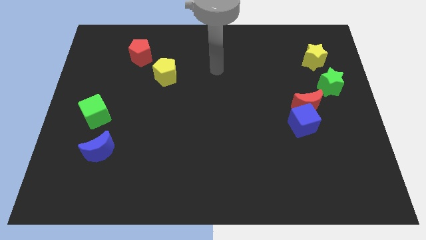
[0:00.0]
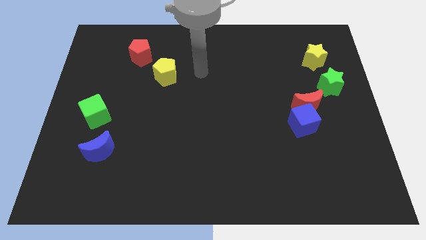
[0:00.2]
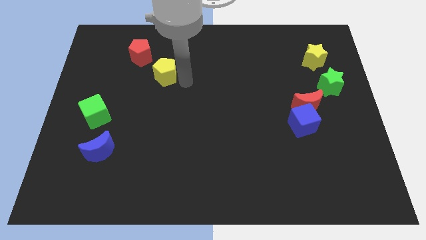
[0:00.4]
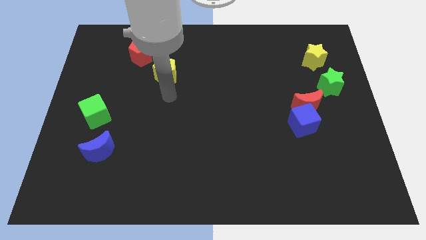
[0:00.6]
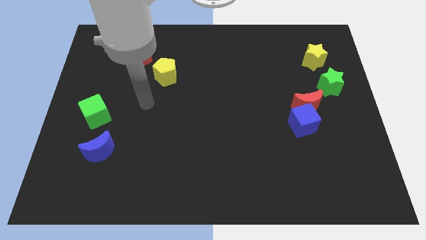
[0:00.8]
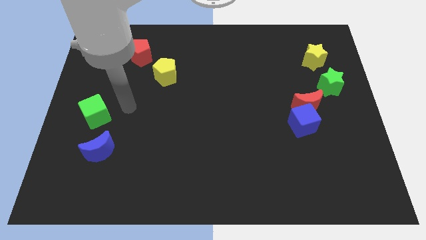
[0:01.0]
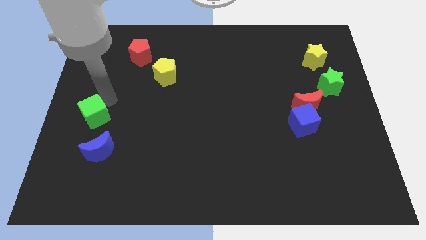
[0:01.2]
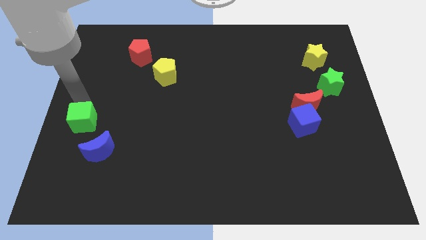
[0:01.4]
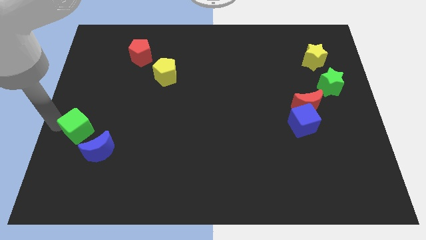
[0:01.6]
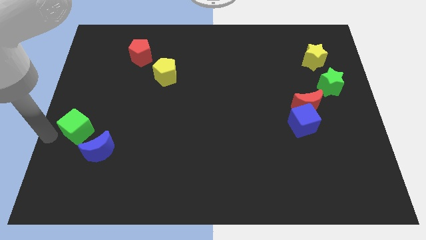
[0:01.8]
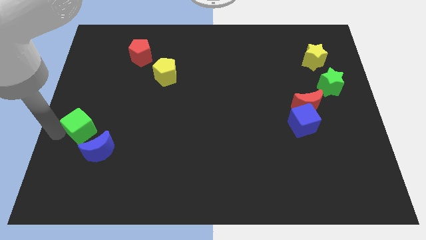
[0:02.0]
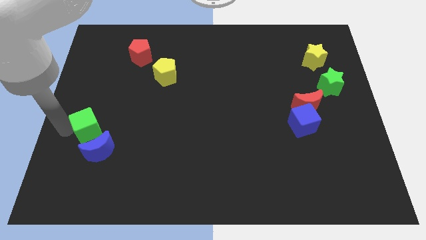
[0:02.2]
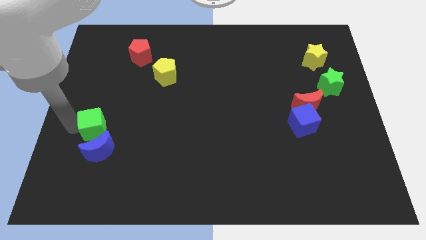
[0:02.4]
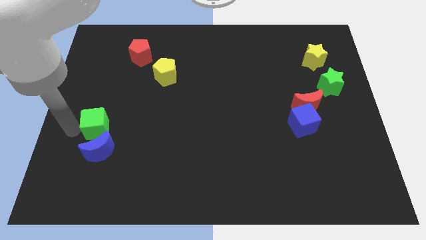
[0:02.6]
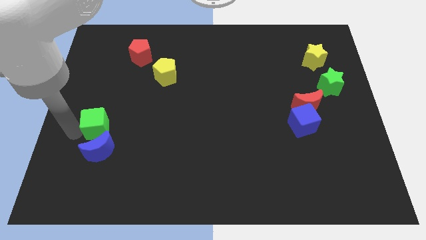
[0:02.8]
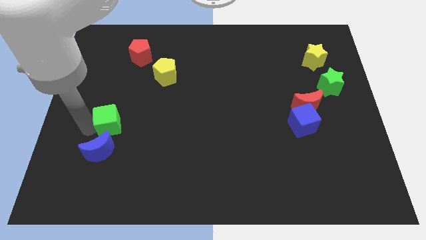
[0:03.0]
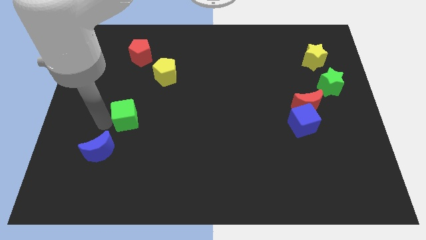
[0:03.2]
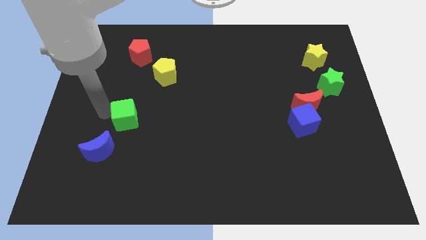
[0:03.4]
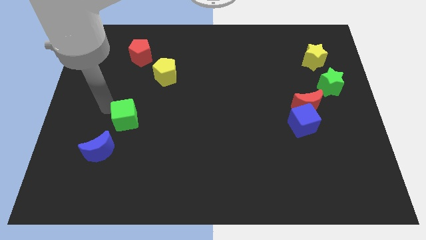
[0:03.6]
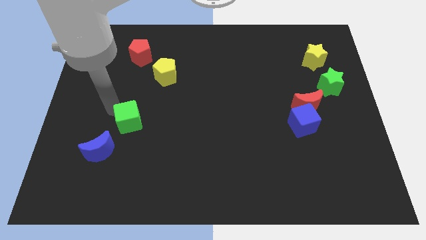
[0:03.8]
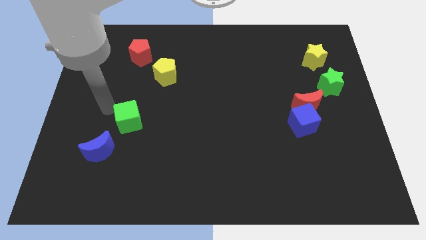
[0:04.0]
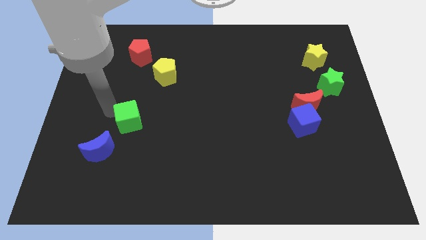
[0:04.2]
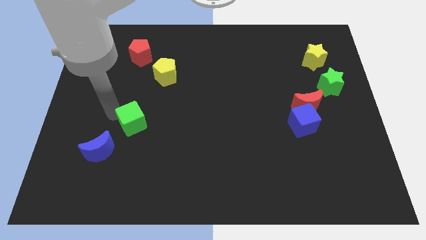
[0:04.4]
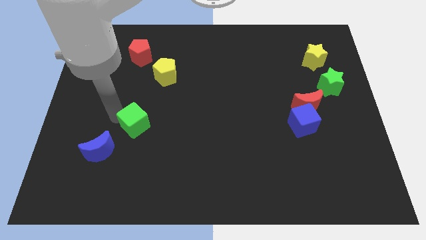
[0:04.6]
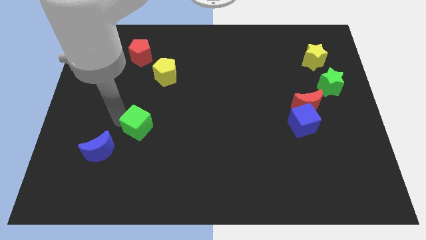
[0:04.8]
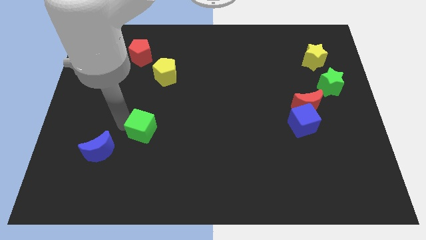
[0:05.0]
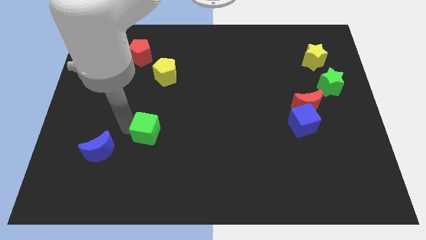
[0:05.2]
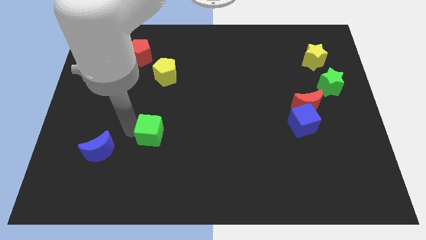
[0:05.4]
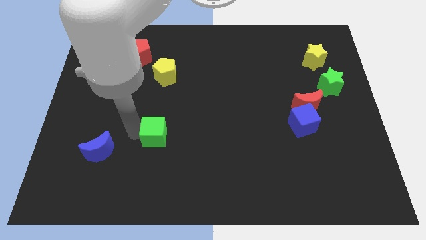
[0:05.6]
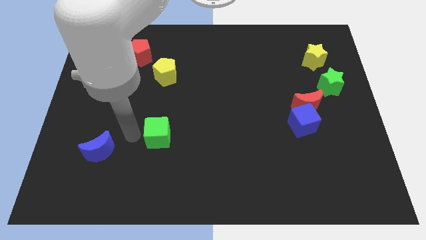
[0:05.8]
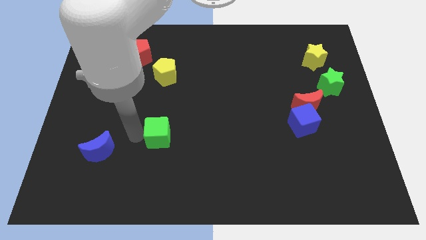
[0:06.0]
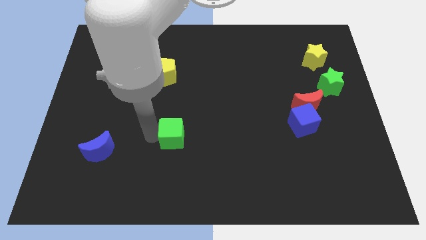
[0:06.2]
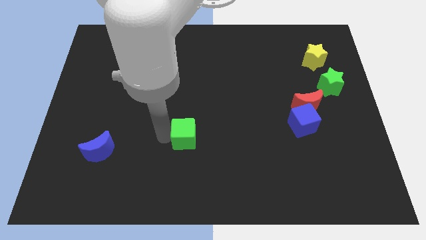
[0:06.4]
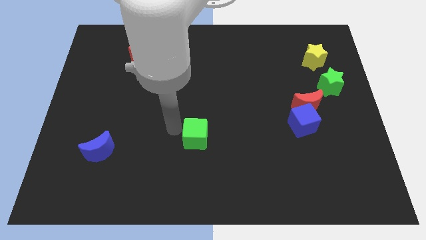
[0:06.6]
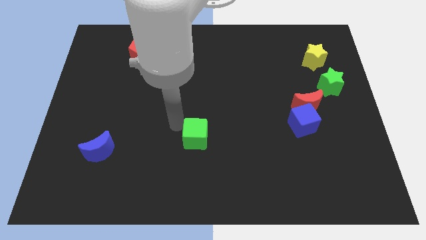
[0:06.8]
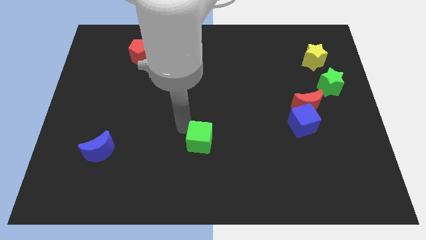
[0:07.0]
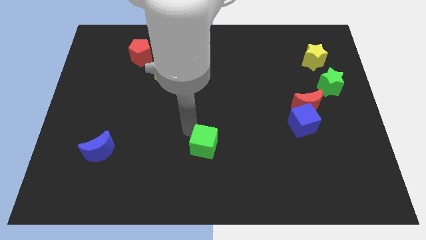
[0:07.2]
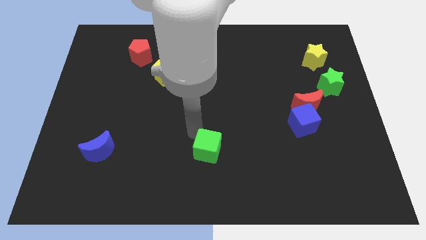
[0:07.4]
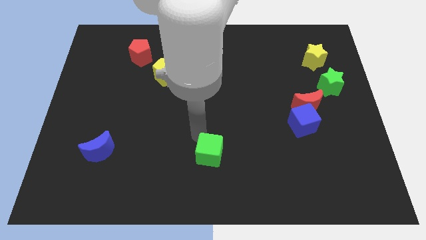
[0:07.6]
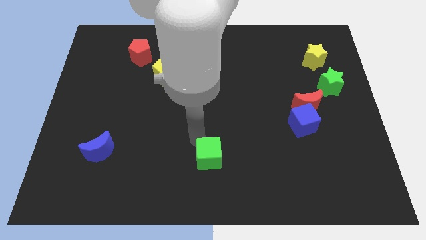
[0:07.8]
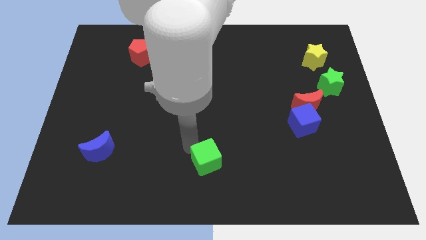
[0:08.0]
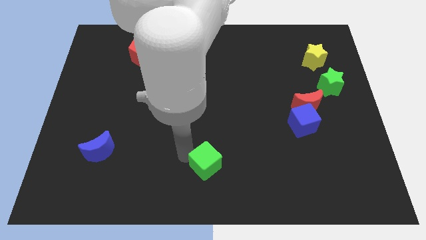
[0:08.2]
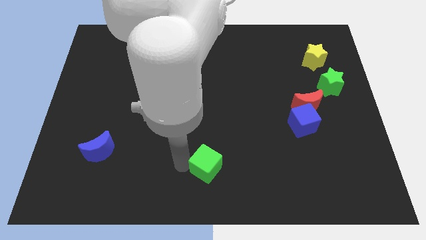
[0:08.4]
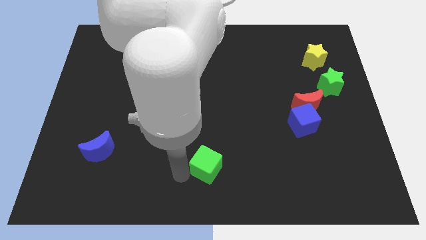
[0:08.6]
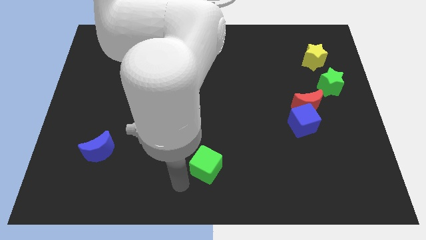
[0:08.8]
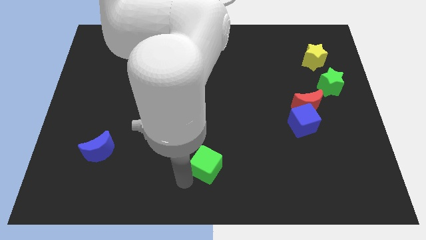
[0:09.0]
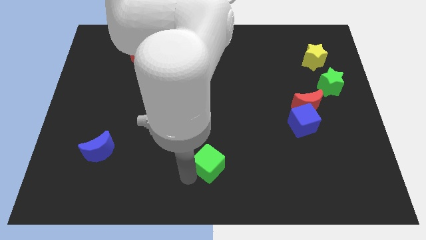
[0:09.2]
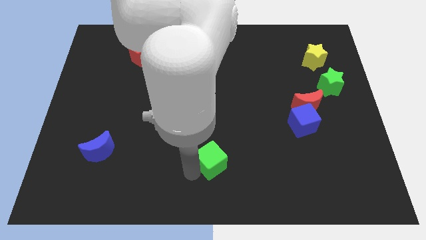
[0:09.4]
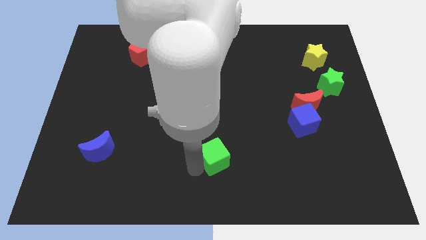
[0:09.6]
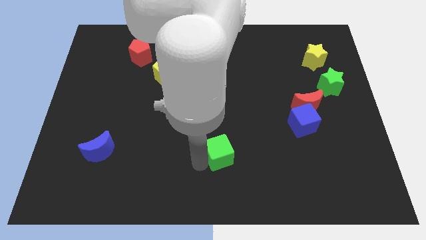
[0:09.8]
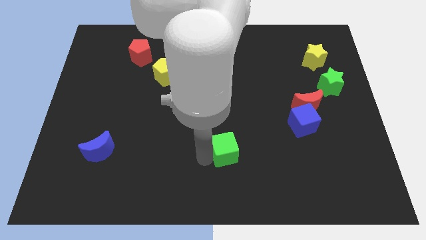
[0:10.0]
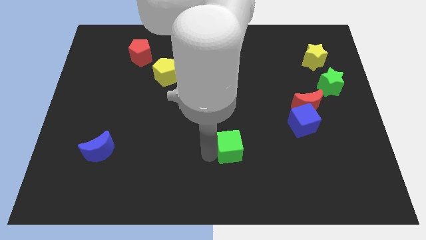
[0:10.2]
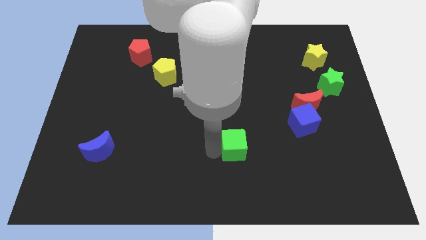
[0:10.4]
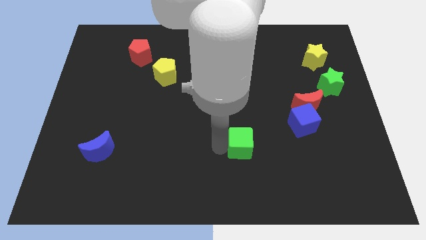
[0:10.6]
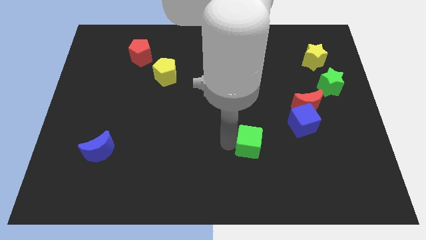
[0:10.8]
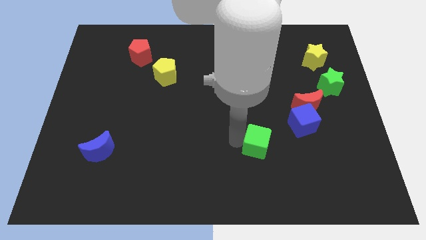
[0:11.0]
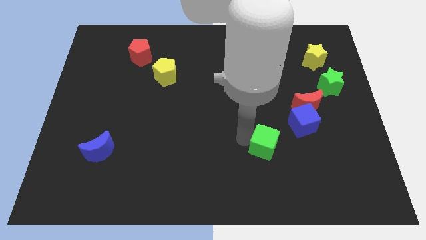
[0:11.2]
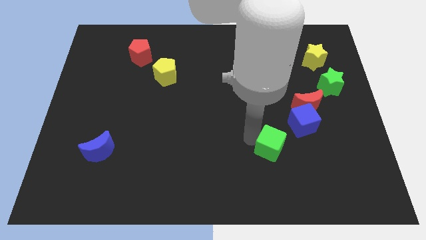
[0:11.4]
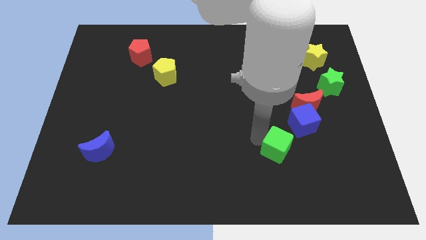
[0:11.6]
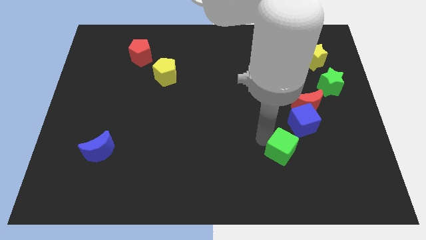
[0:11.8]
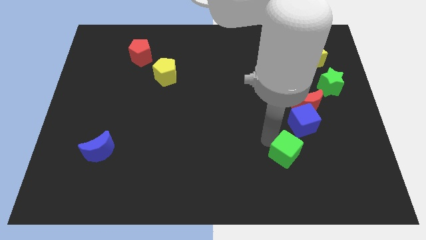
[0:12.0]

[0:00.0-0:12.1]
push the green cube below the blue cube

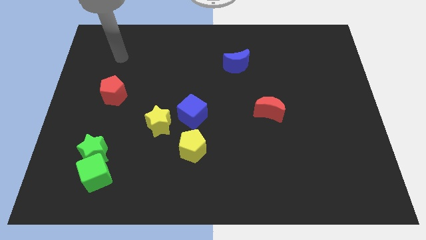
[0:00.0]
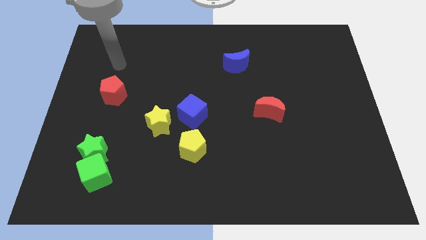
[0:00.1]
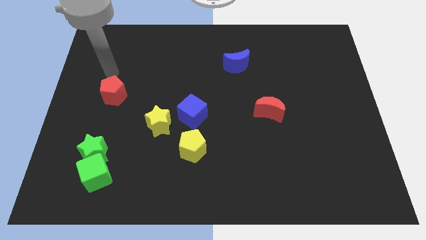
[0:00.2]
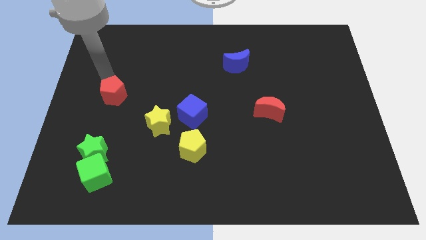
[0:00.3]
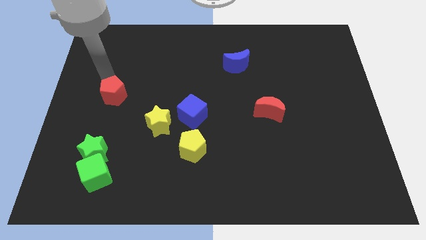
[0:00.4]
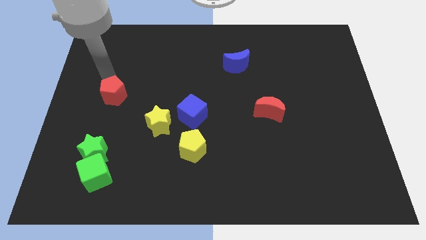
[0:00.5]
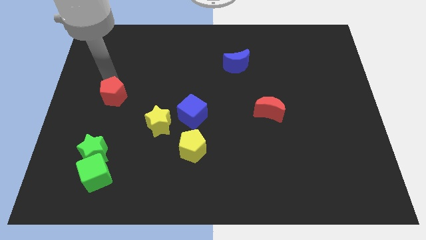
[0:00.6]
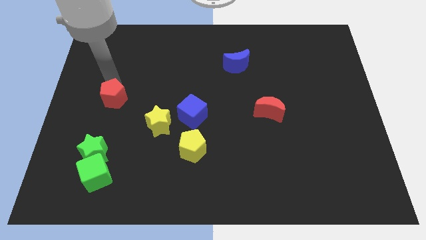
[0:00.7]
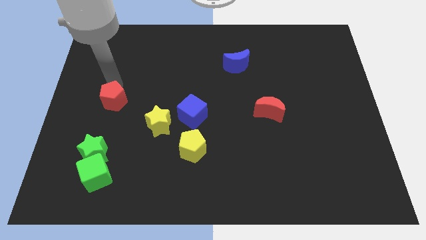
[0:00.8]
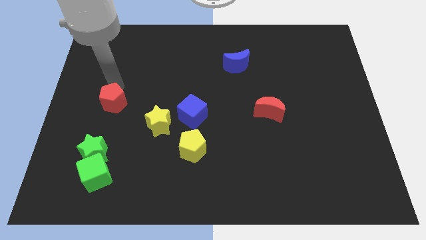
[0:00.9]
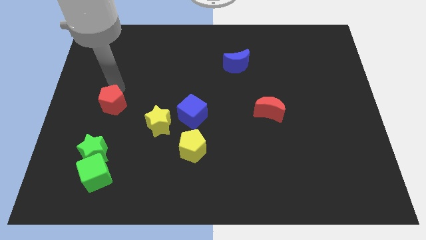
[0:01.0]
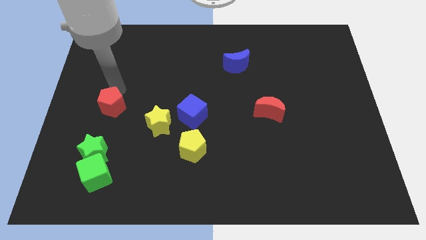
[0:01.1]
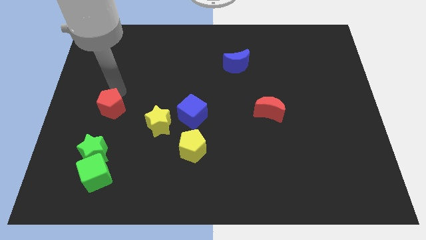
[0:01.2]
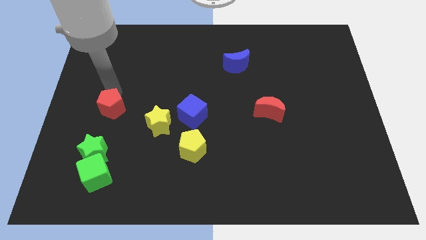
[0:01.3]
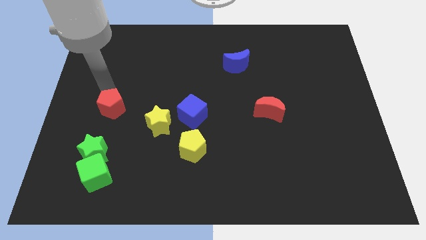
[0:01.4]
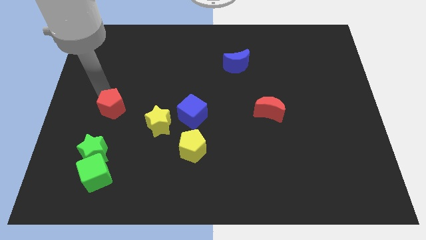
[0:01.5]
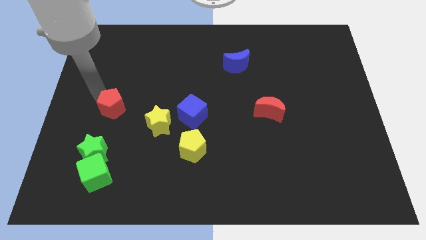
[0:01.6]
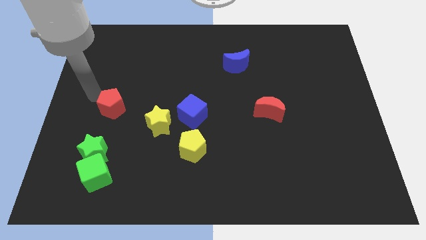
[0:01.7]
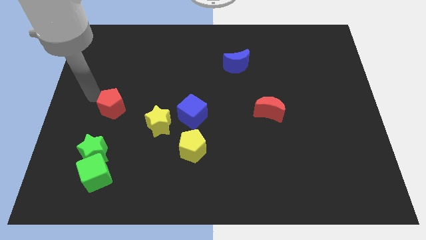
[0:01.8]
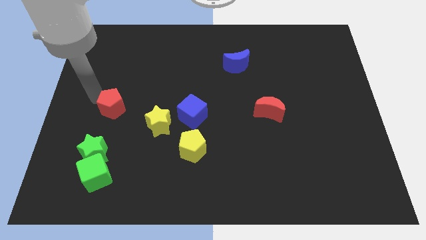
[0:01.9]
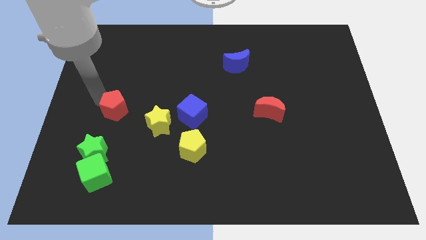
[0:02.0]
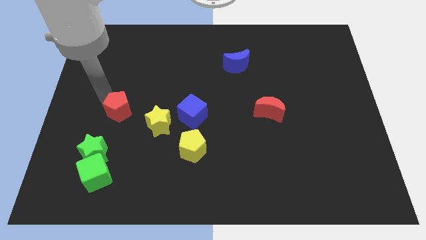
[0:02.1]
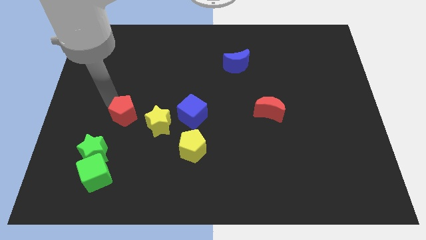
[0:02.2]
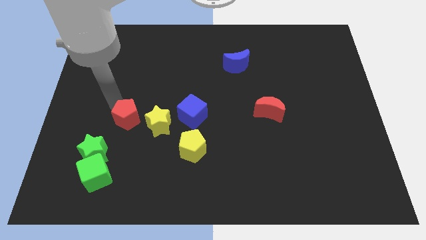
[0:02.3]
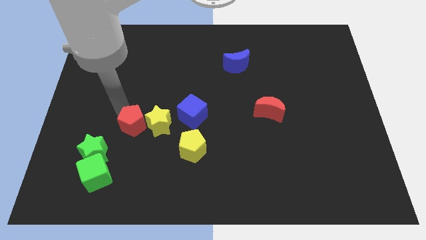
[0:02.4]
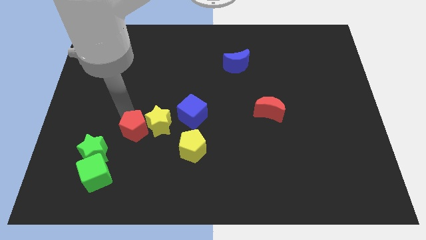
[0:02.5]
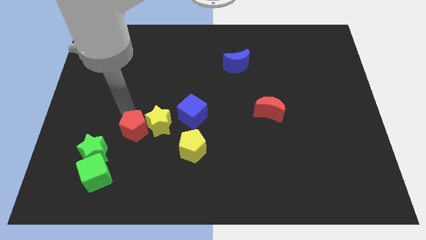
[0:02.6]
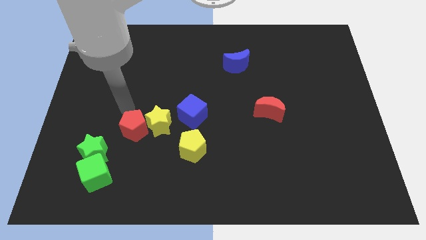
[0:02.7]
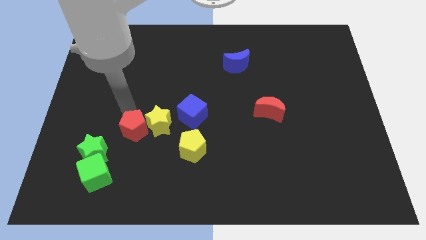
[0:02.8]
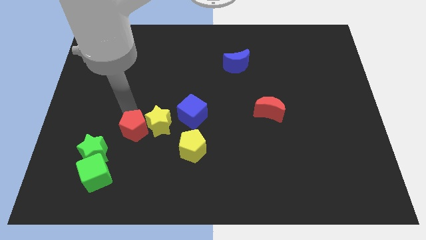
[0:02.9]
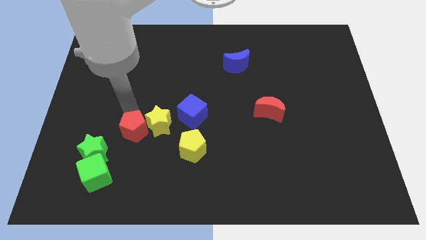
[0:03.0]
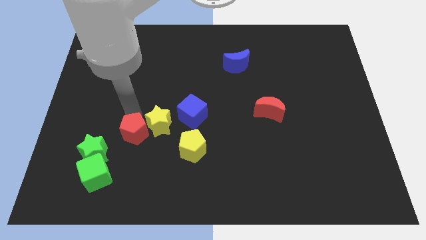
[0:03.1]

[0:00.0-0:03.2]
move the red pentagon to the left side of the yellow pentagon
